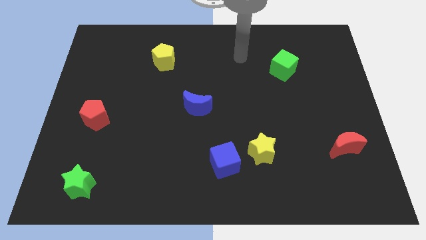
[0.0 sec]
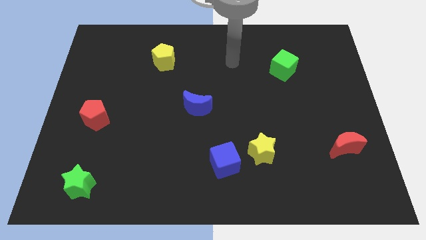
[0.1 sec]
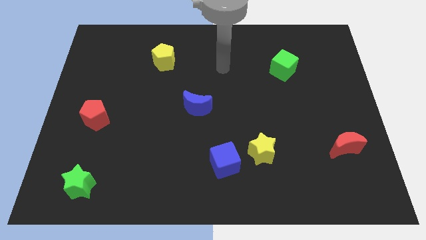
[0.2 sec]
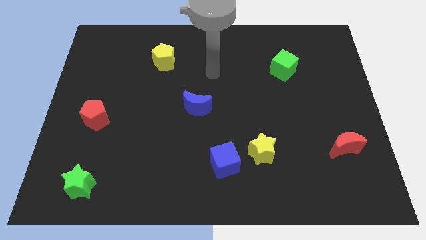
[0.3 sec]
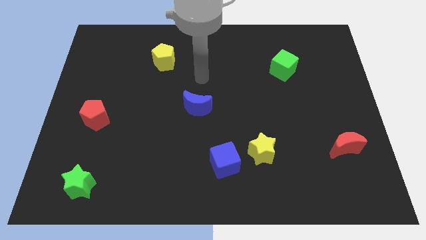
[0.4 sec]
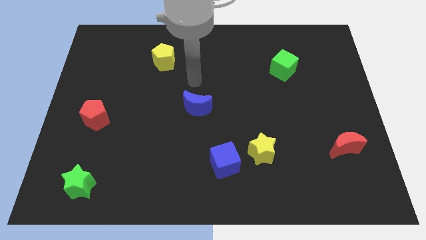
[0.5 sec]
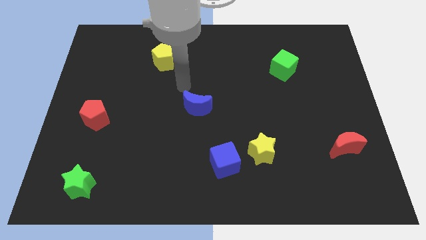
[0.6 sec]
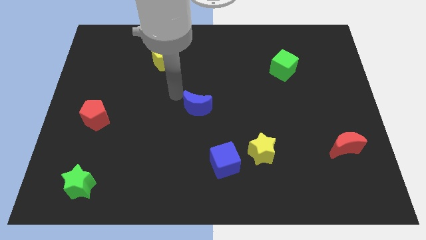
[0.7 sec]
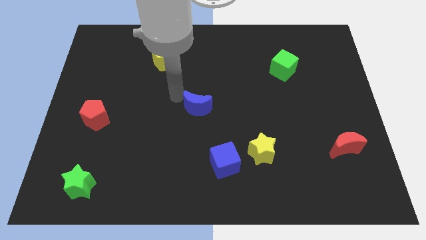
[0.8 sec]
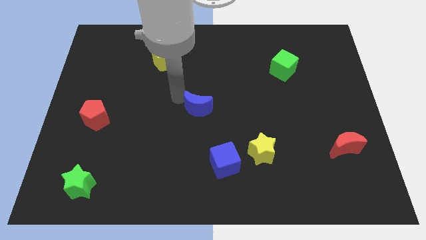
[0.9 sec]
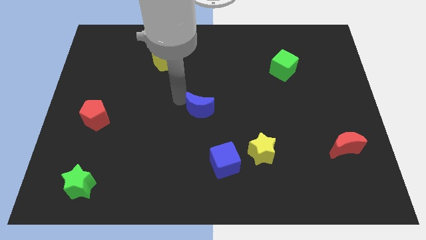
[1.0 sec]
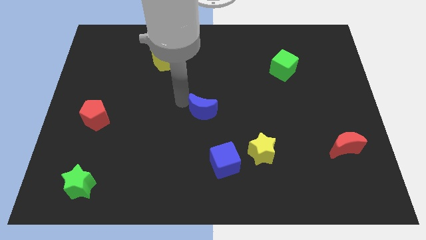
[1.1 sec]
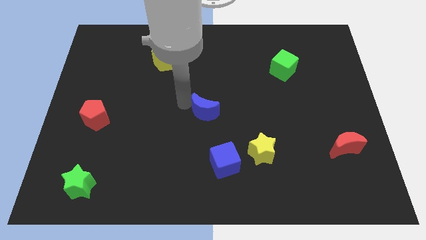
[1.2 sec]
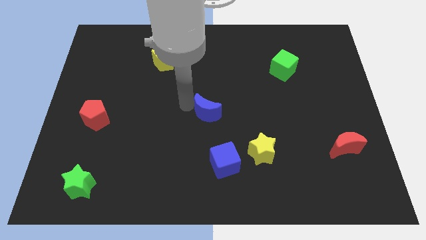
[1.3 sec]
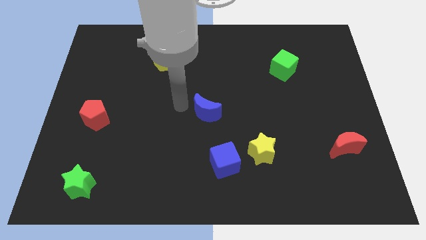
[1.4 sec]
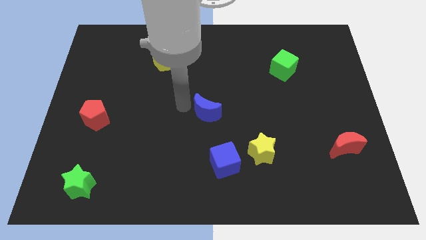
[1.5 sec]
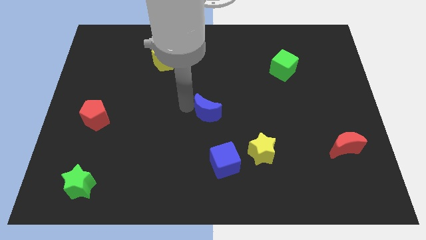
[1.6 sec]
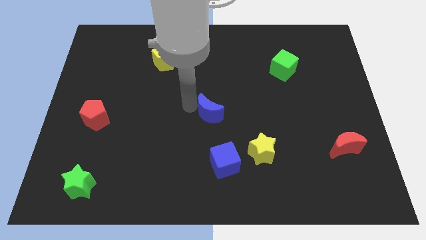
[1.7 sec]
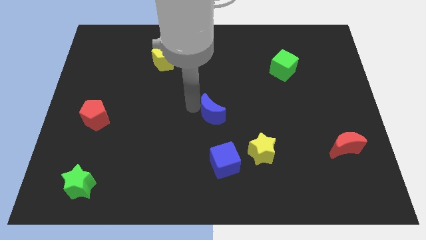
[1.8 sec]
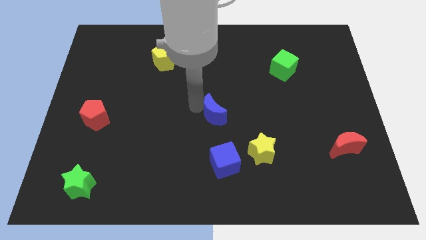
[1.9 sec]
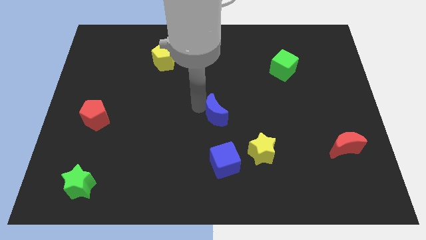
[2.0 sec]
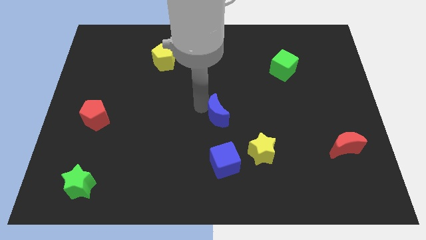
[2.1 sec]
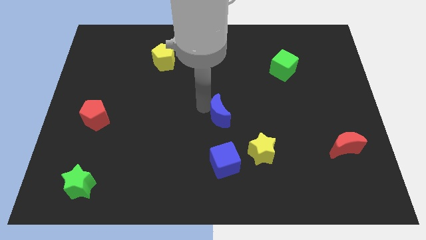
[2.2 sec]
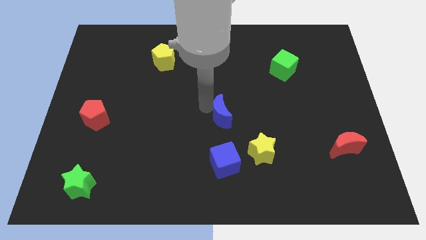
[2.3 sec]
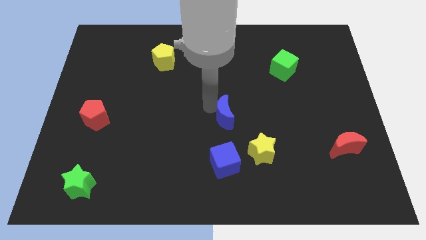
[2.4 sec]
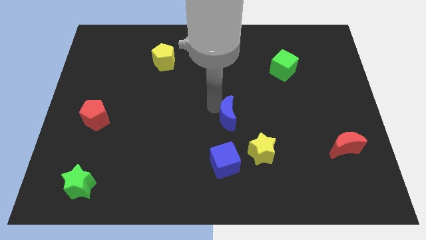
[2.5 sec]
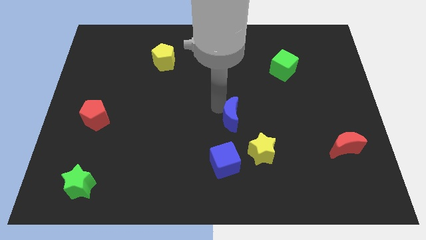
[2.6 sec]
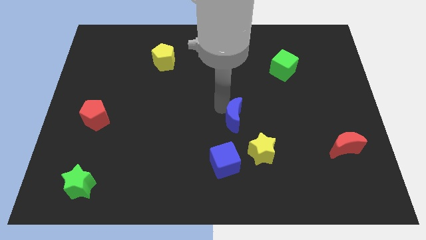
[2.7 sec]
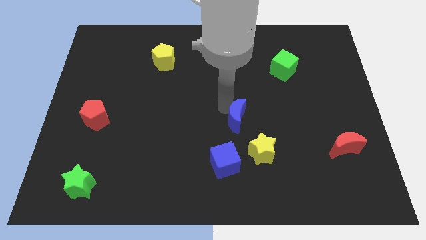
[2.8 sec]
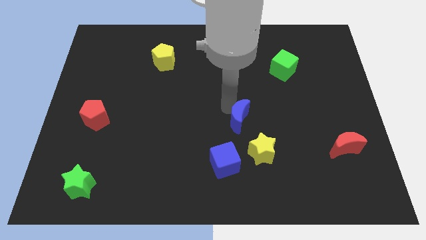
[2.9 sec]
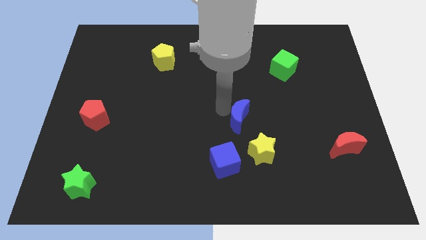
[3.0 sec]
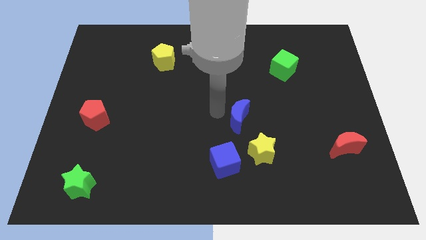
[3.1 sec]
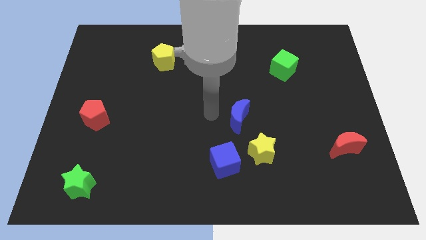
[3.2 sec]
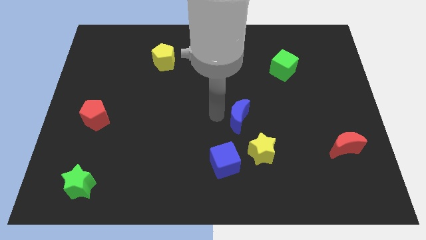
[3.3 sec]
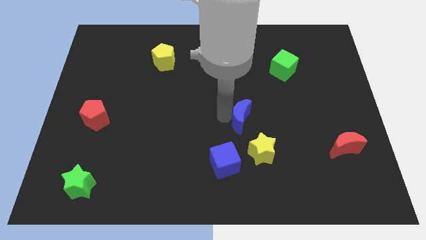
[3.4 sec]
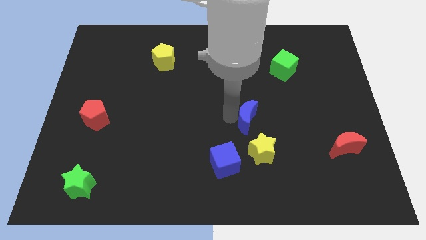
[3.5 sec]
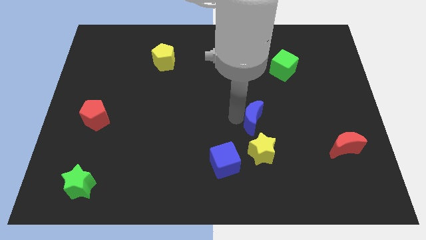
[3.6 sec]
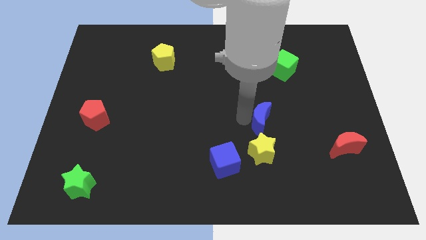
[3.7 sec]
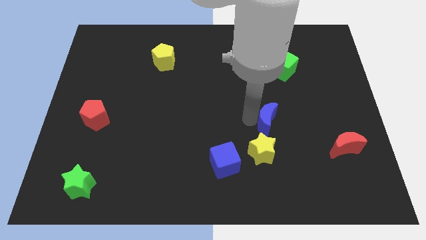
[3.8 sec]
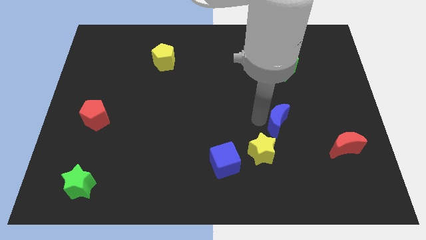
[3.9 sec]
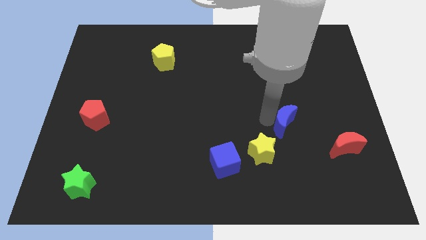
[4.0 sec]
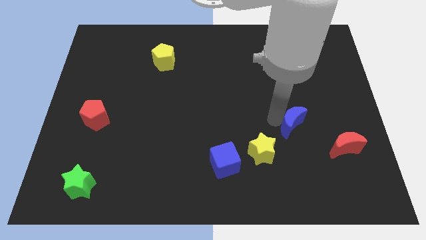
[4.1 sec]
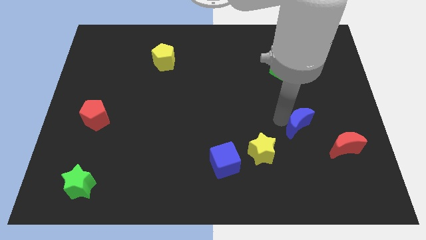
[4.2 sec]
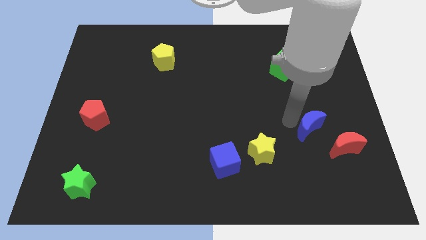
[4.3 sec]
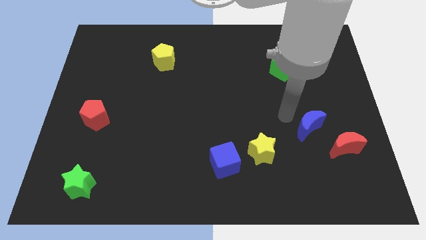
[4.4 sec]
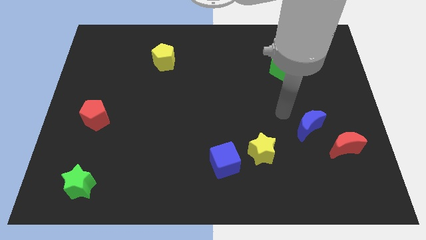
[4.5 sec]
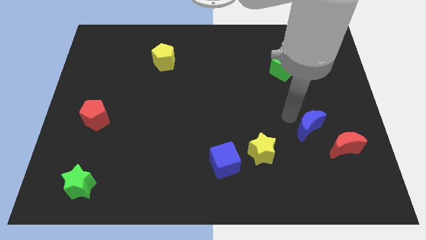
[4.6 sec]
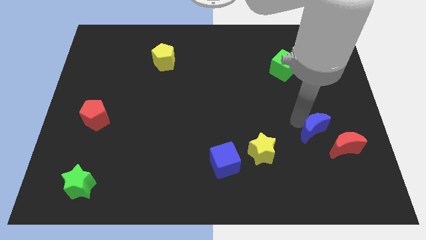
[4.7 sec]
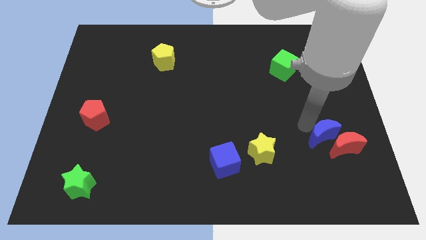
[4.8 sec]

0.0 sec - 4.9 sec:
slide the blue moon to the red moon

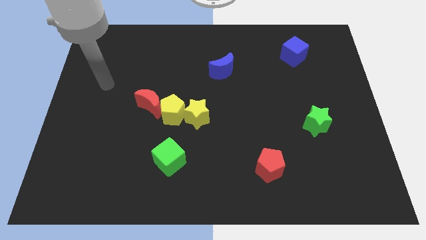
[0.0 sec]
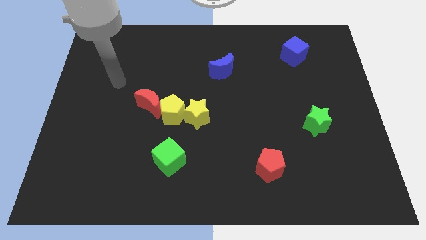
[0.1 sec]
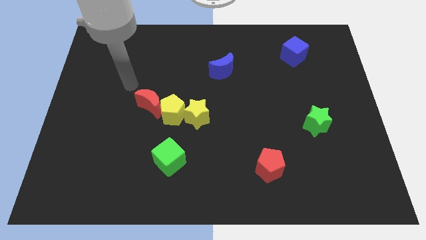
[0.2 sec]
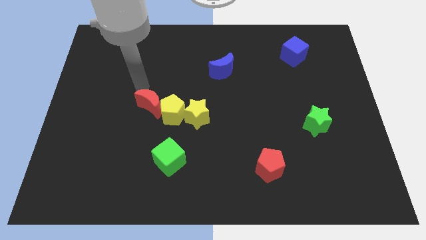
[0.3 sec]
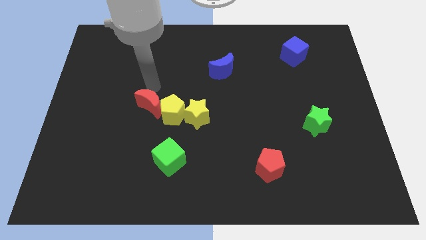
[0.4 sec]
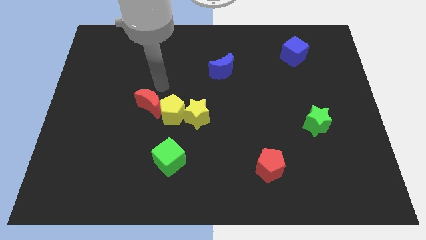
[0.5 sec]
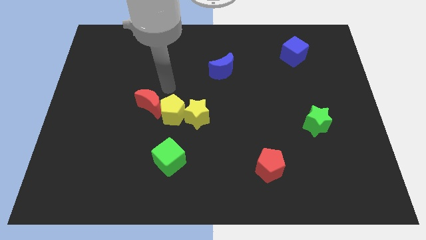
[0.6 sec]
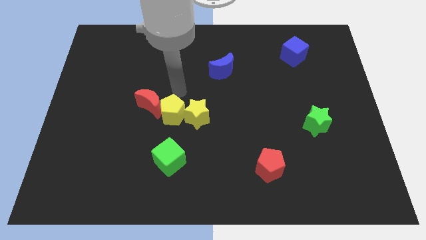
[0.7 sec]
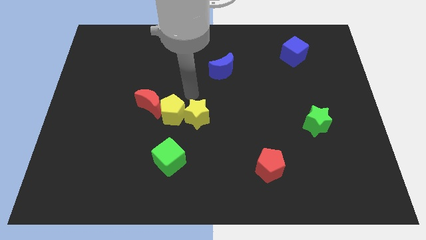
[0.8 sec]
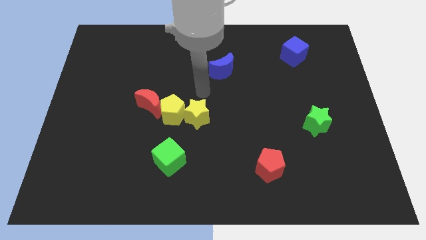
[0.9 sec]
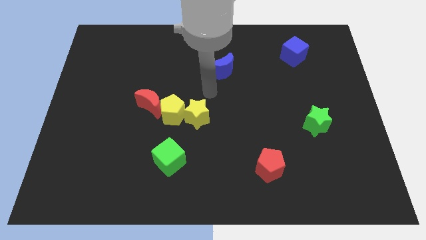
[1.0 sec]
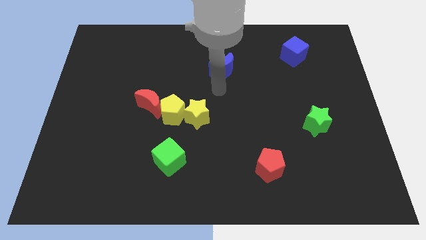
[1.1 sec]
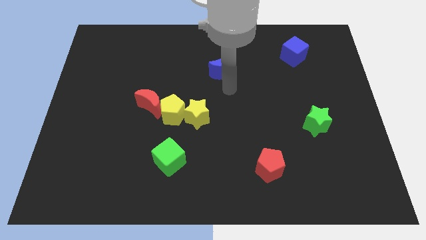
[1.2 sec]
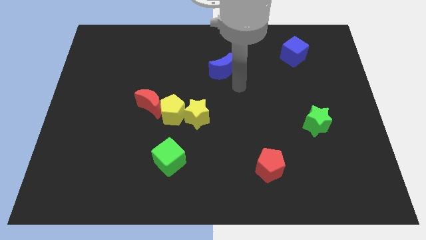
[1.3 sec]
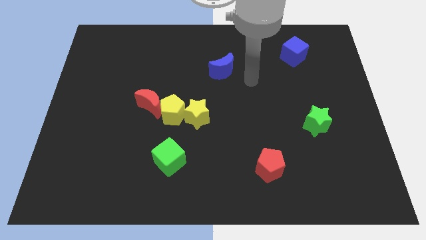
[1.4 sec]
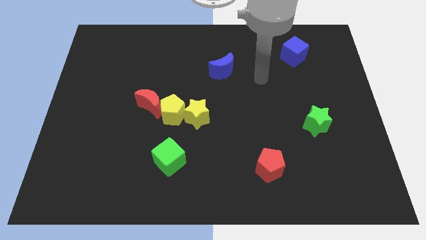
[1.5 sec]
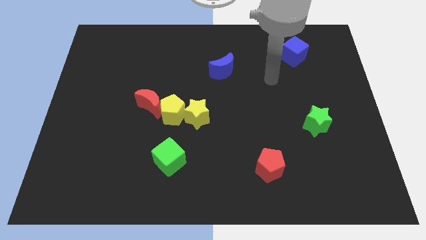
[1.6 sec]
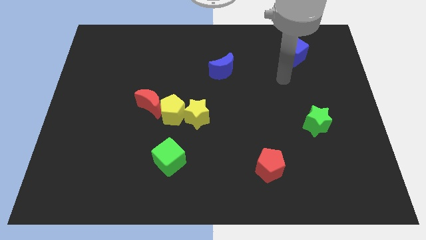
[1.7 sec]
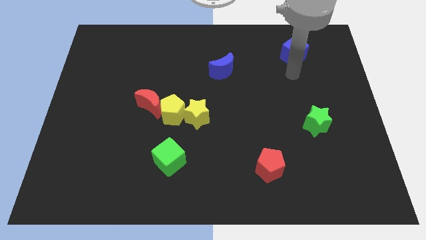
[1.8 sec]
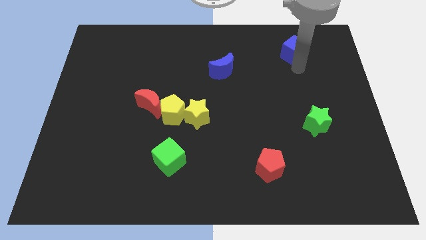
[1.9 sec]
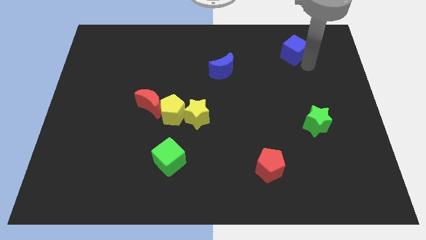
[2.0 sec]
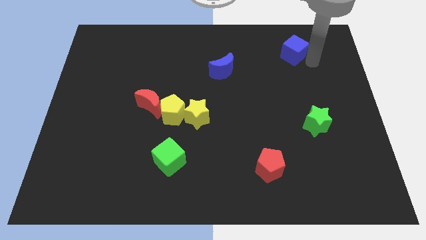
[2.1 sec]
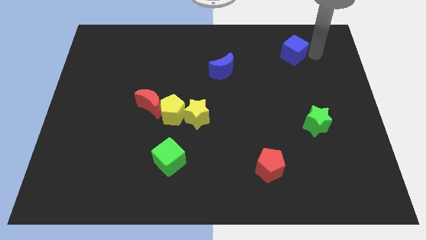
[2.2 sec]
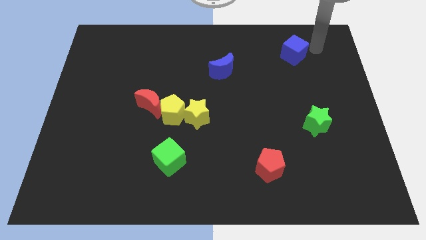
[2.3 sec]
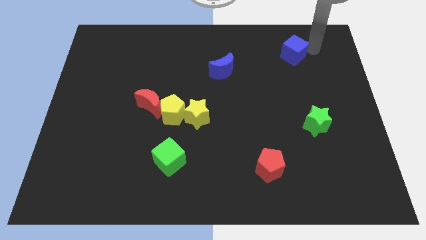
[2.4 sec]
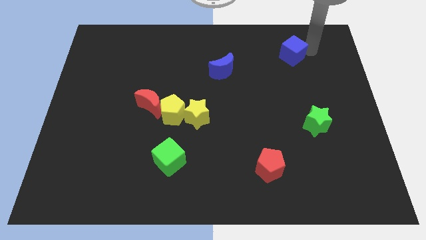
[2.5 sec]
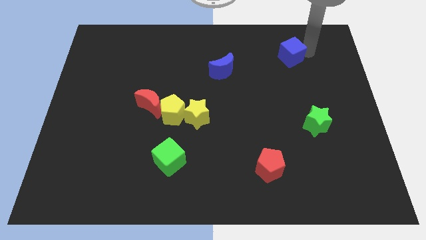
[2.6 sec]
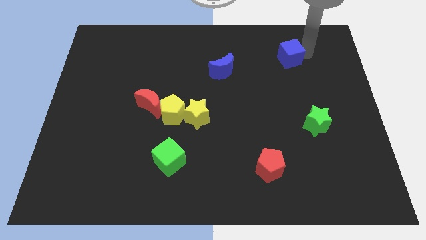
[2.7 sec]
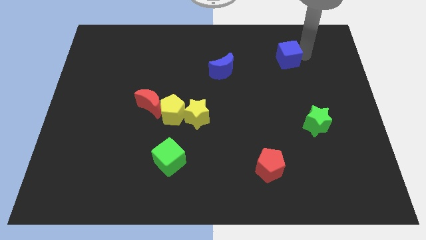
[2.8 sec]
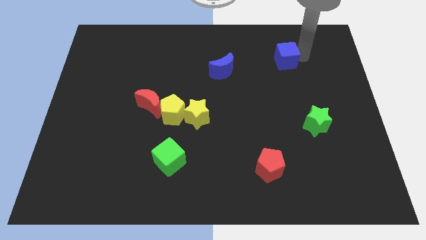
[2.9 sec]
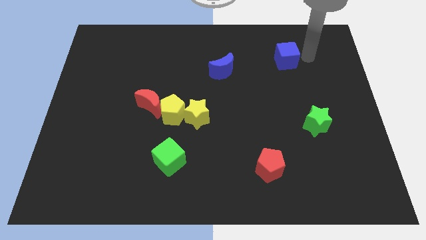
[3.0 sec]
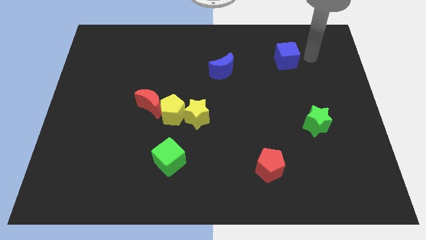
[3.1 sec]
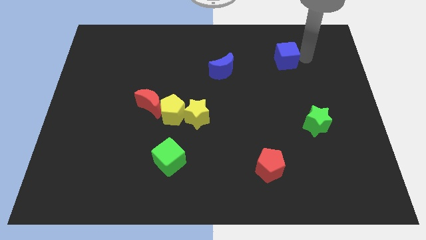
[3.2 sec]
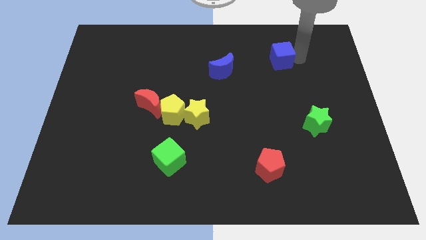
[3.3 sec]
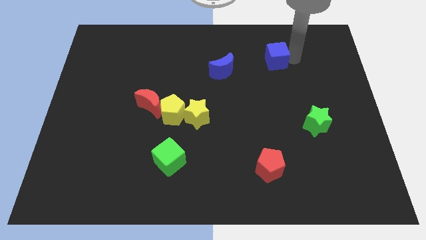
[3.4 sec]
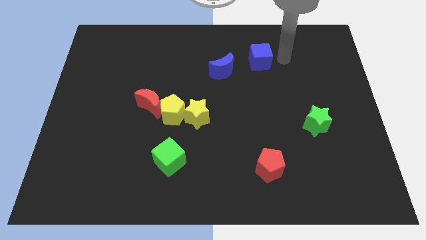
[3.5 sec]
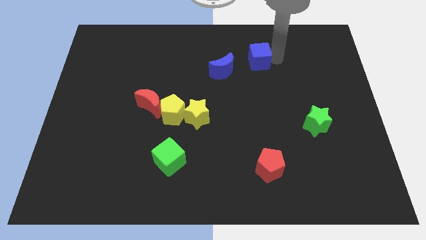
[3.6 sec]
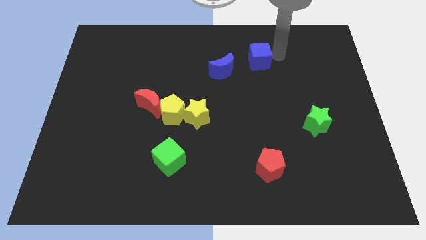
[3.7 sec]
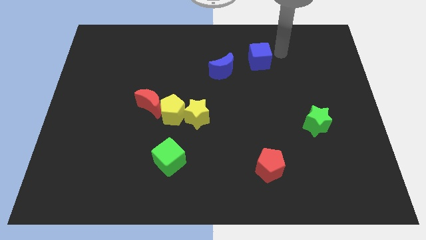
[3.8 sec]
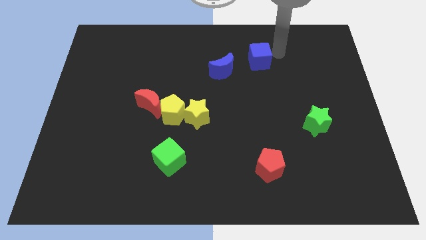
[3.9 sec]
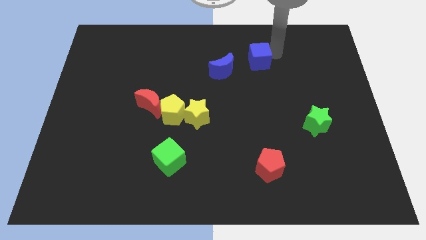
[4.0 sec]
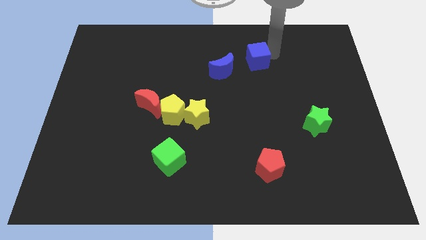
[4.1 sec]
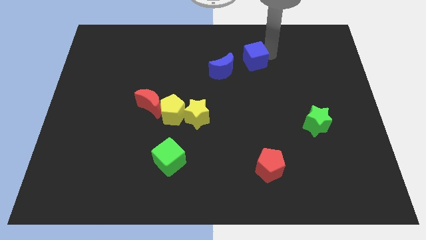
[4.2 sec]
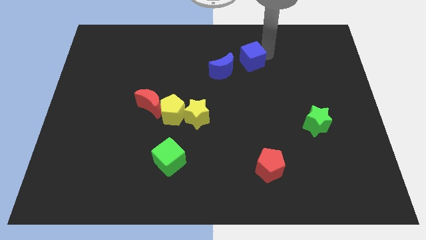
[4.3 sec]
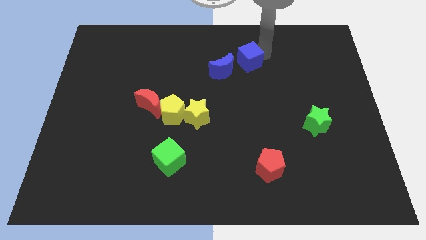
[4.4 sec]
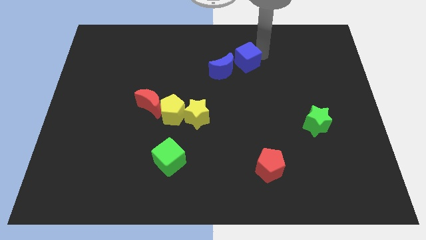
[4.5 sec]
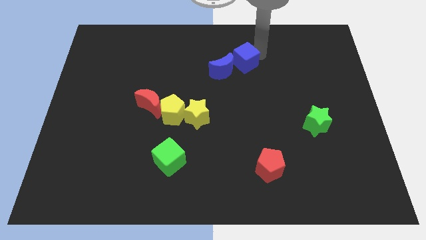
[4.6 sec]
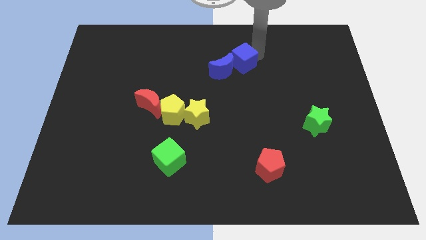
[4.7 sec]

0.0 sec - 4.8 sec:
put the blue cube towards the blue moon
